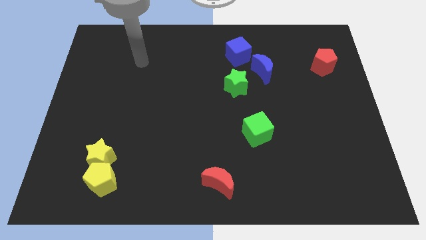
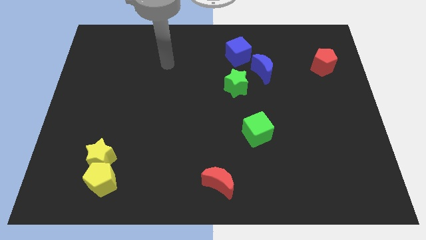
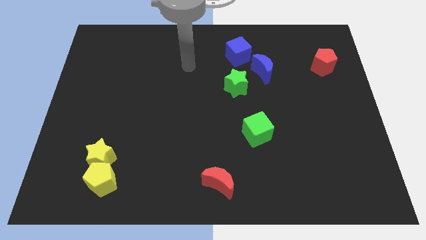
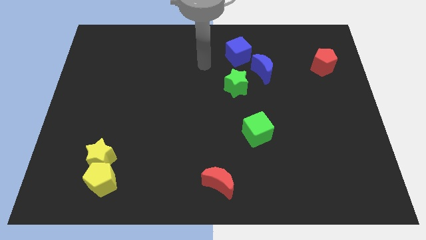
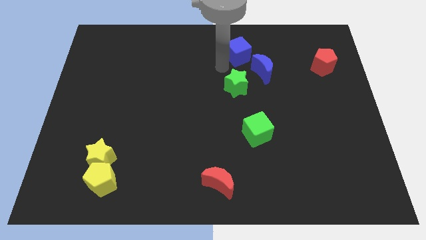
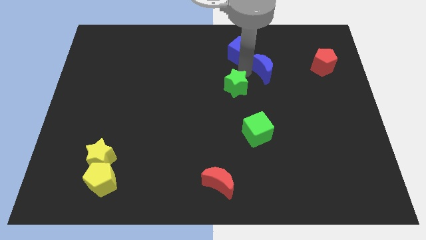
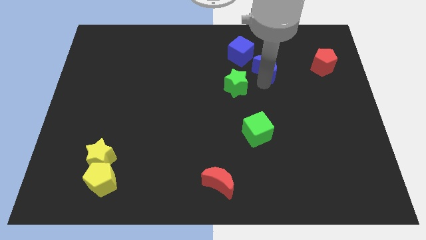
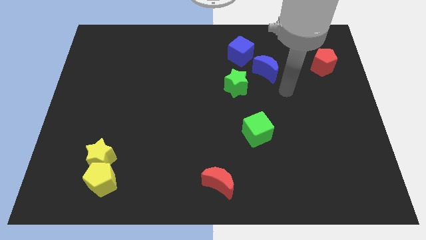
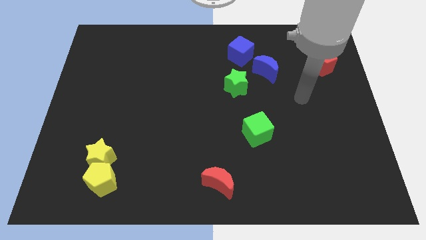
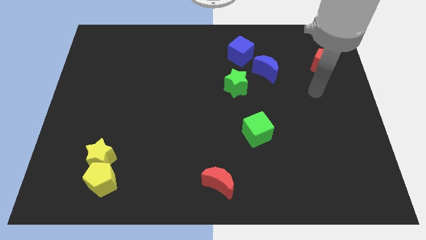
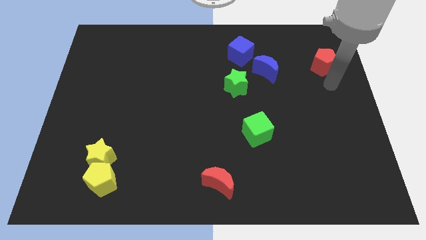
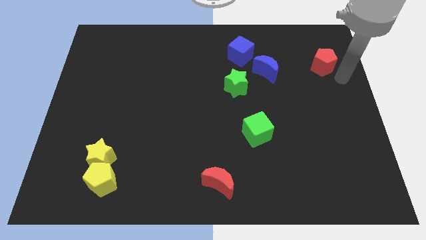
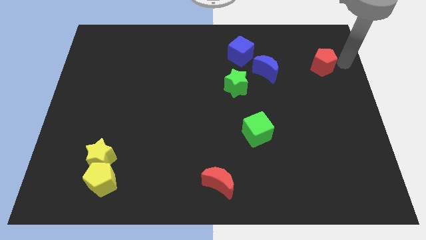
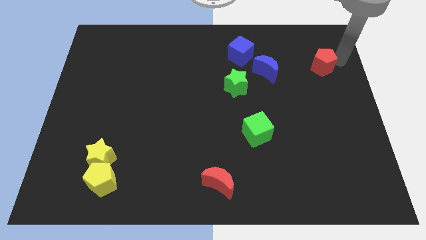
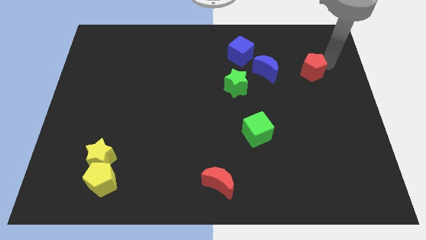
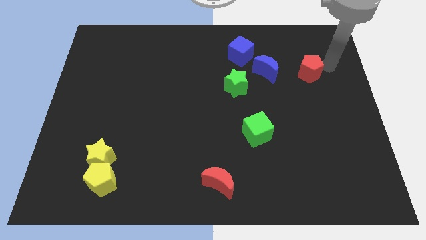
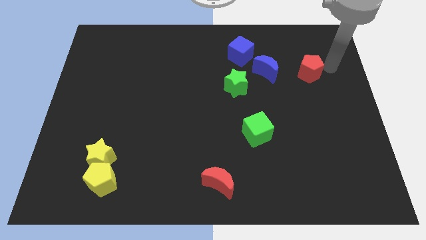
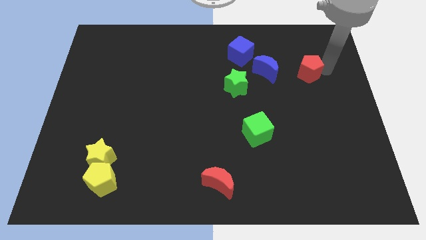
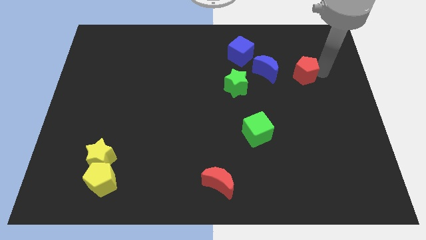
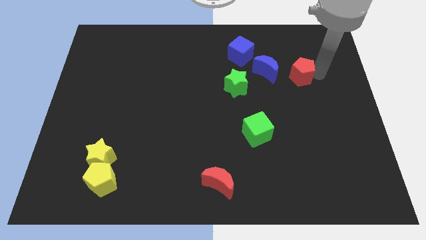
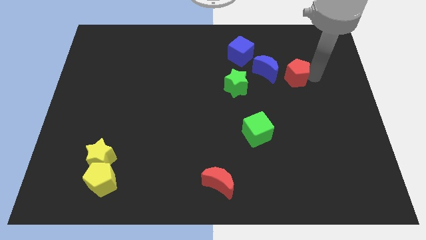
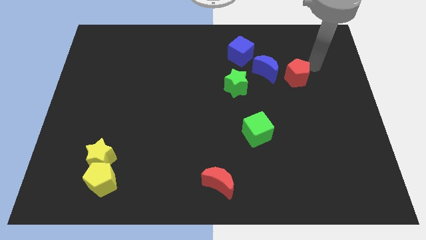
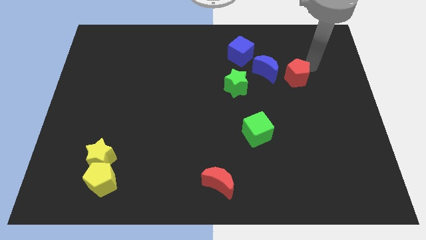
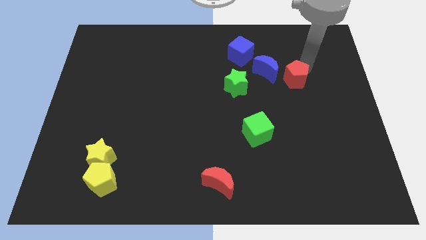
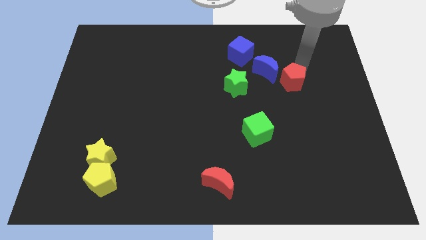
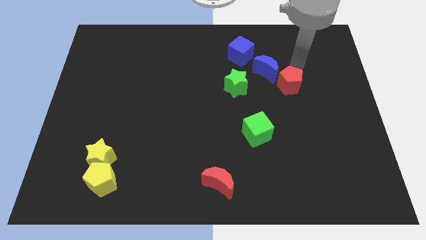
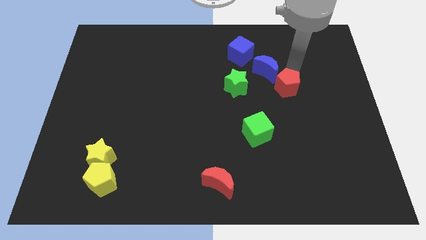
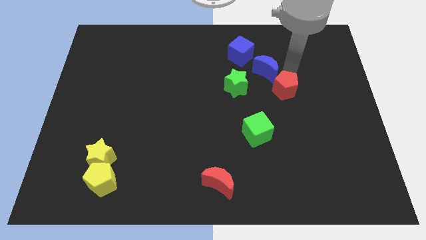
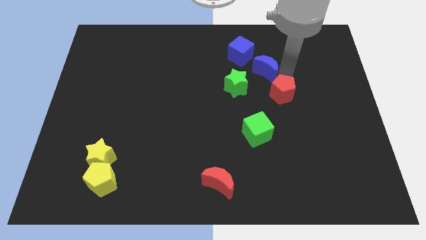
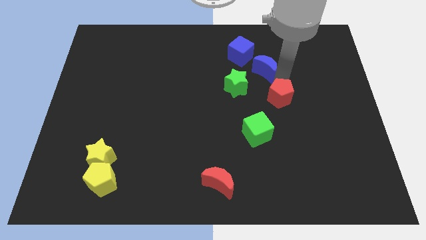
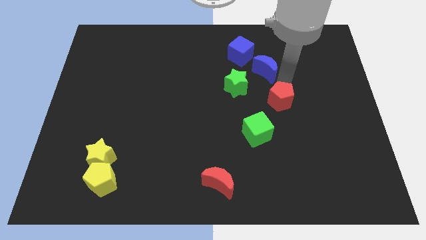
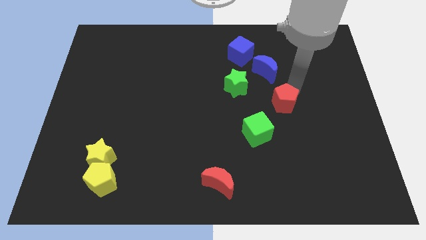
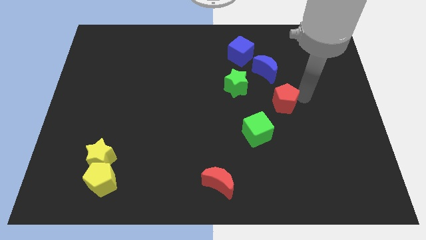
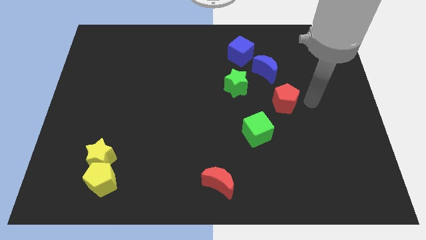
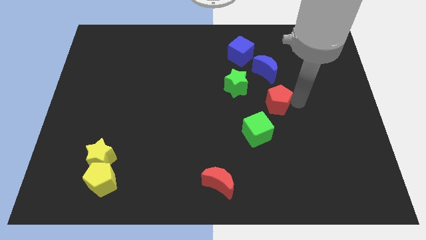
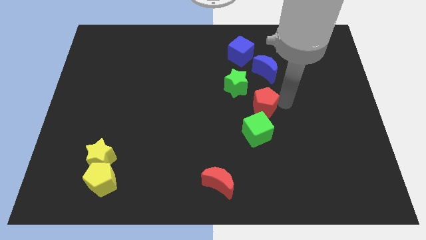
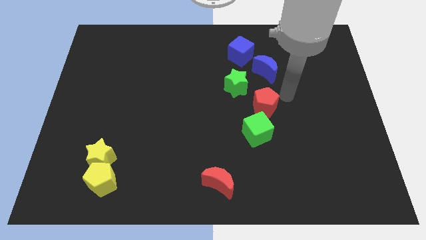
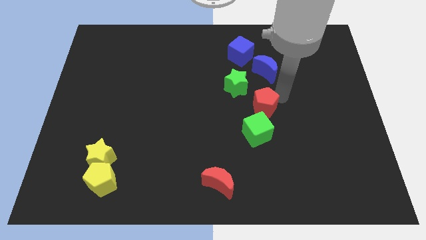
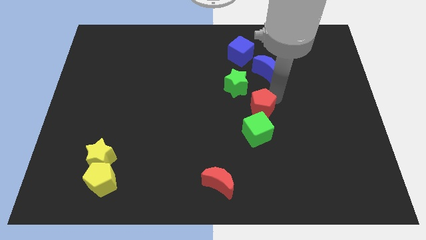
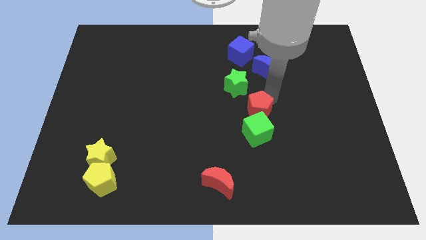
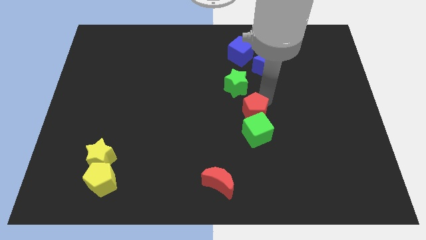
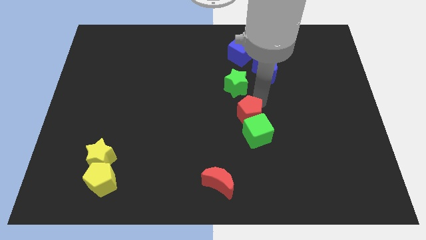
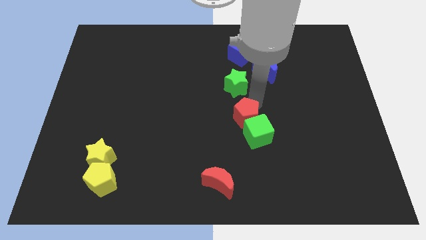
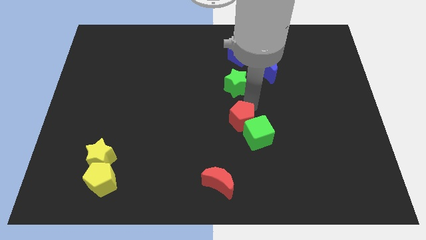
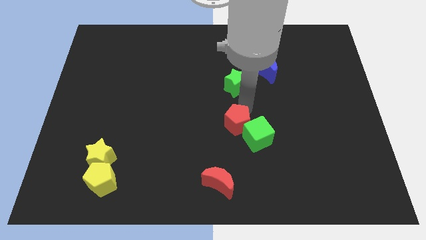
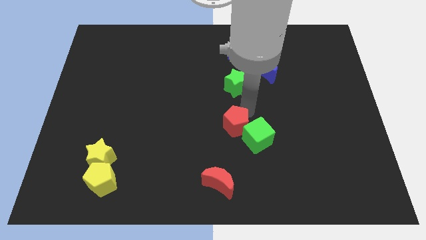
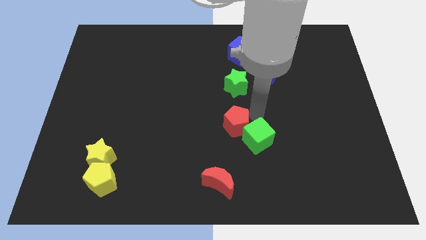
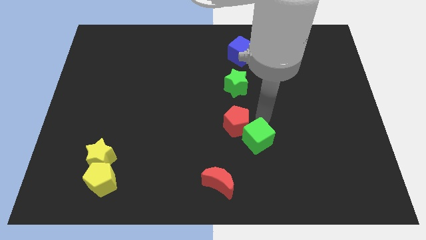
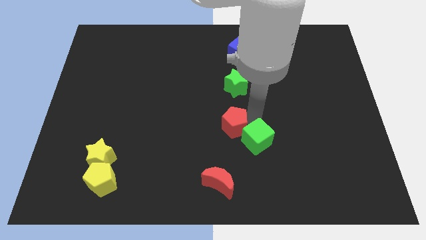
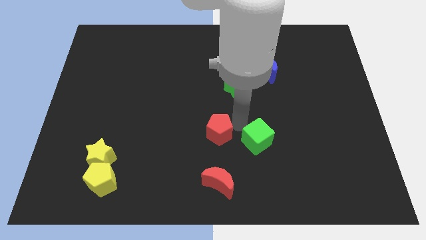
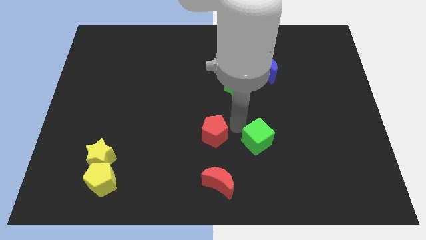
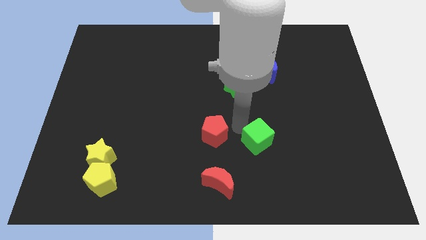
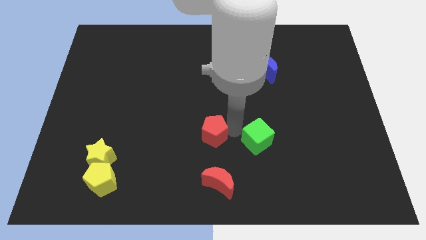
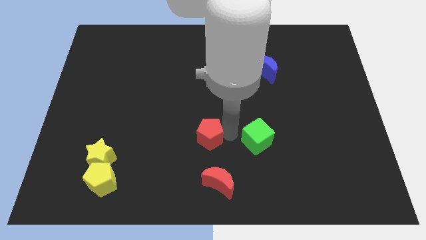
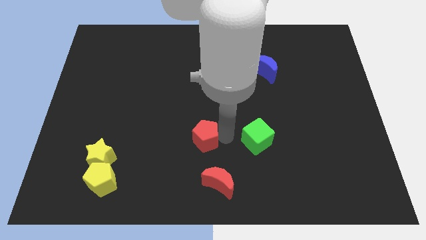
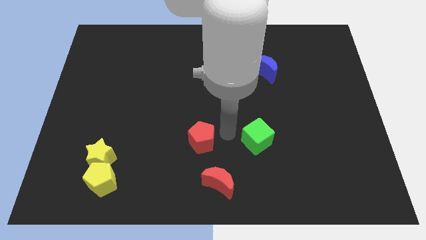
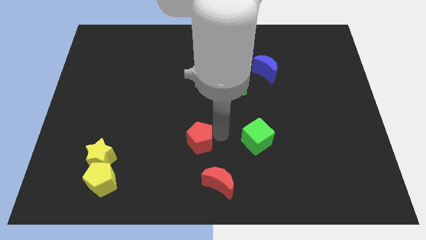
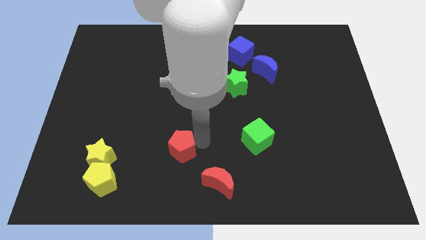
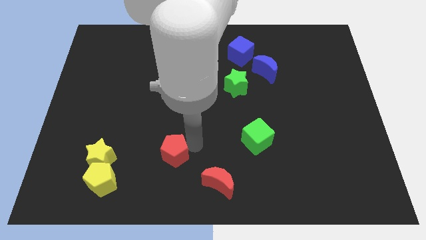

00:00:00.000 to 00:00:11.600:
move the red pentagon to the right side of the yellow star

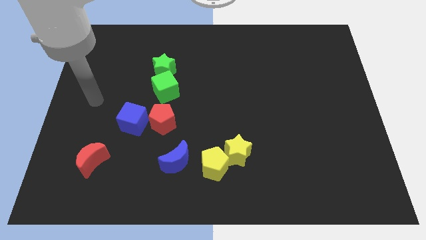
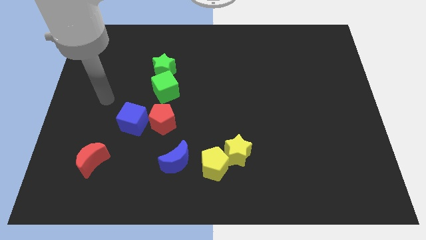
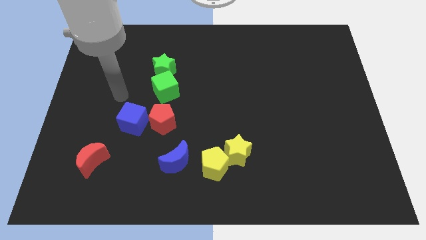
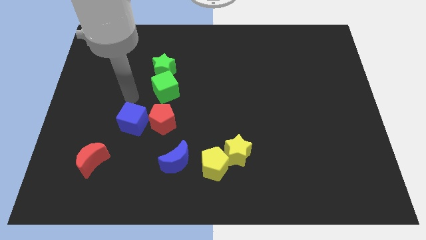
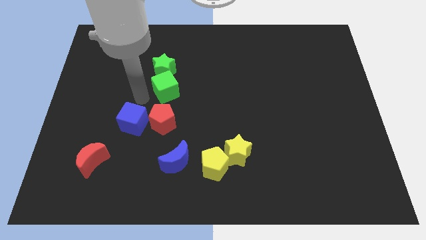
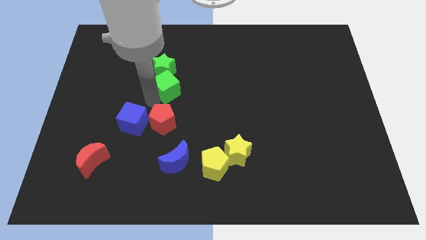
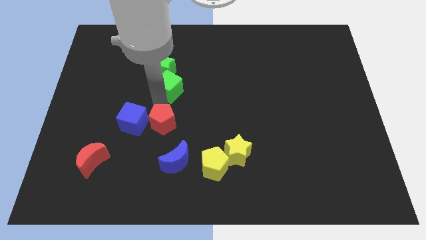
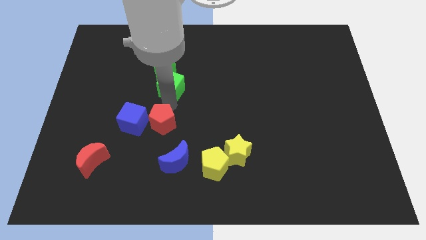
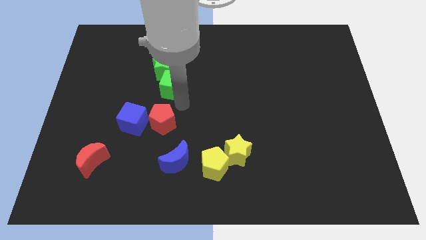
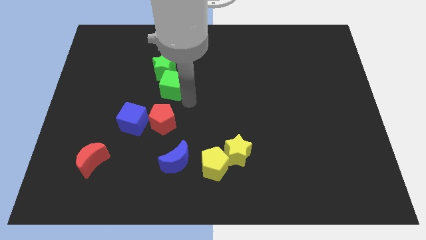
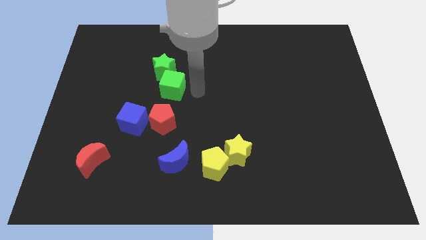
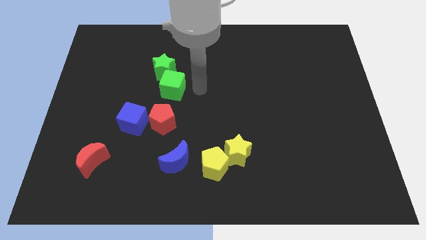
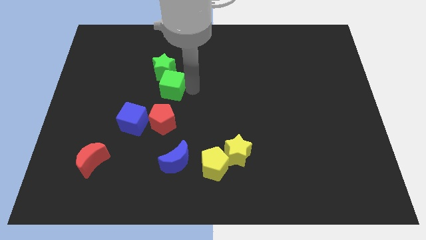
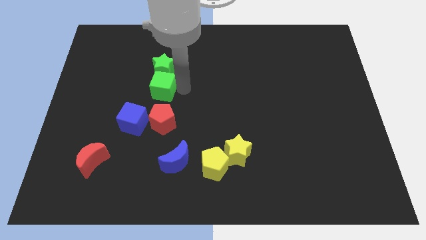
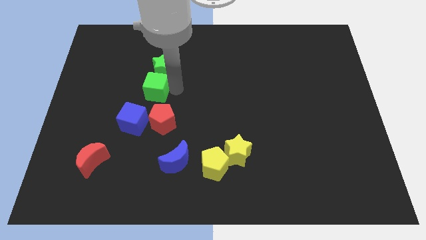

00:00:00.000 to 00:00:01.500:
move the green cube to the top side of the blue cube
